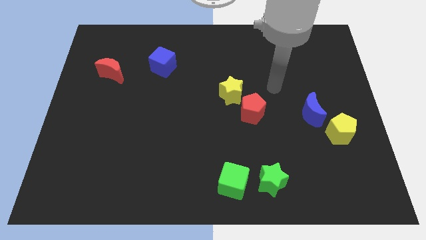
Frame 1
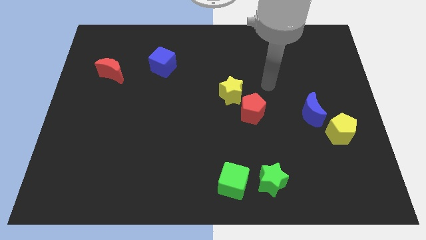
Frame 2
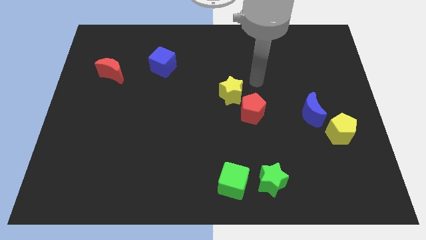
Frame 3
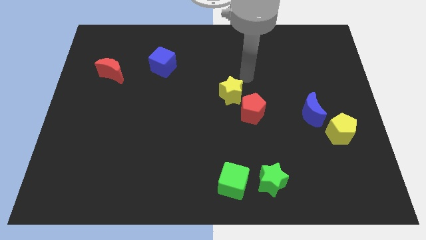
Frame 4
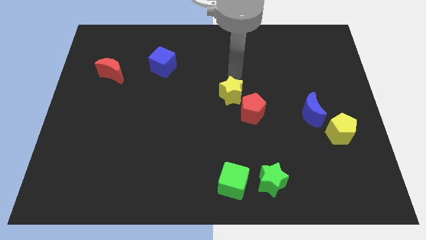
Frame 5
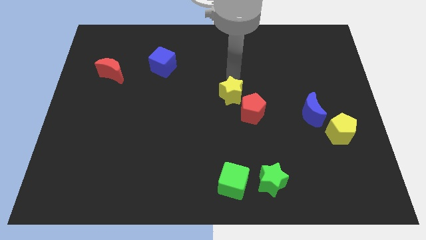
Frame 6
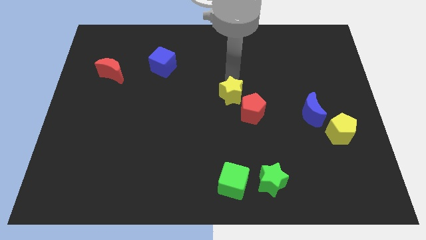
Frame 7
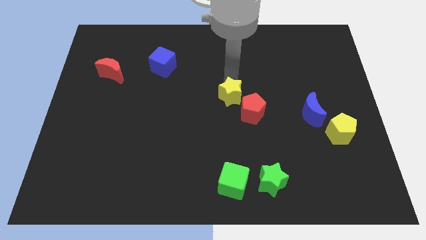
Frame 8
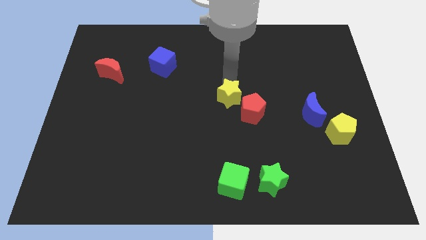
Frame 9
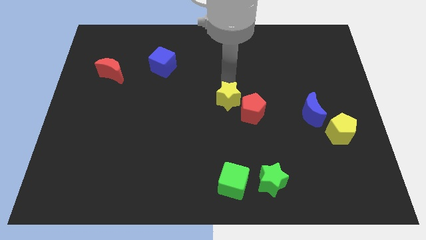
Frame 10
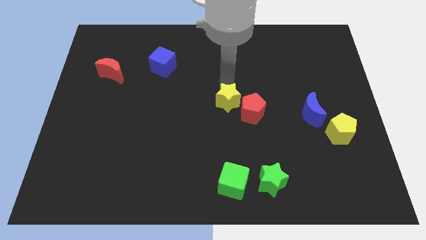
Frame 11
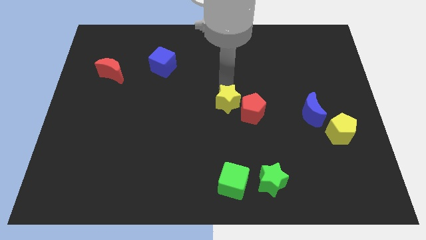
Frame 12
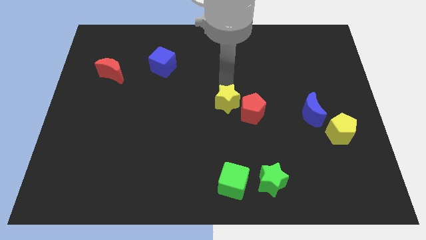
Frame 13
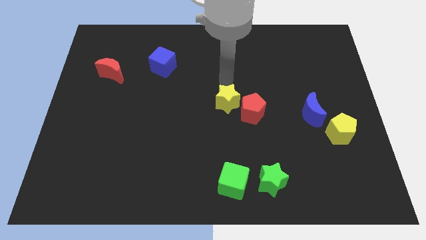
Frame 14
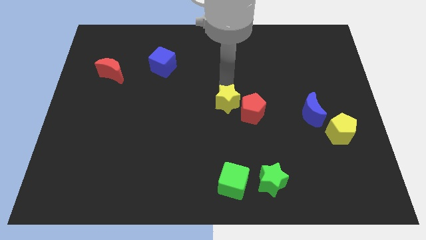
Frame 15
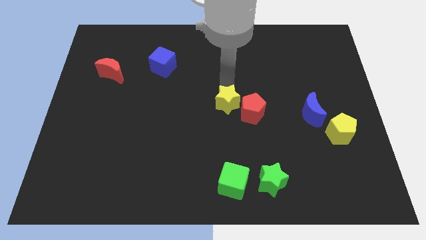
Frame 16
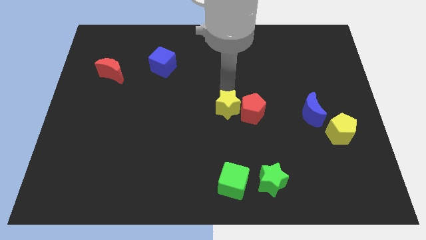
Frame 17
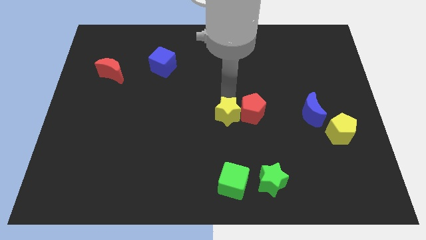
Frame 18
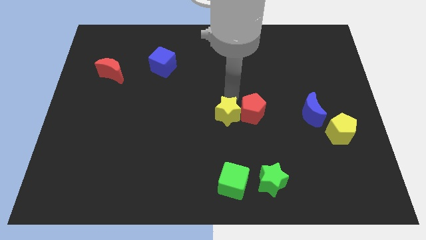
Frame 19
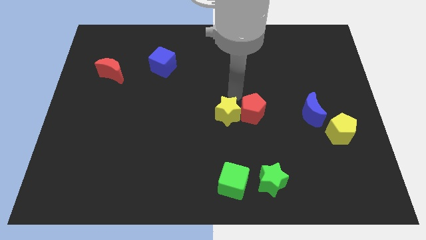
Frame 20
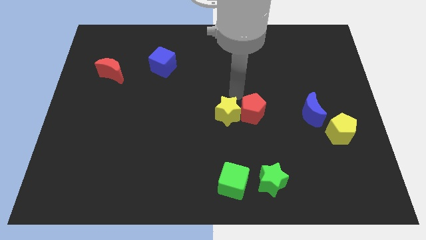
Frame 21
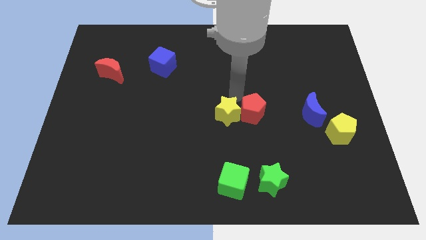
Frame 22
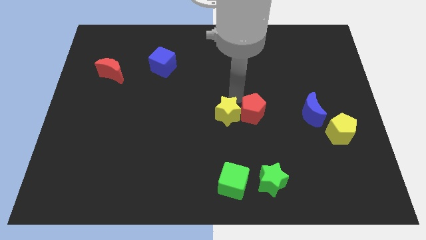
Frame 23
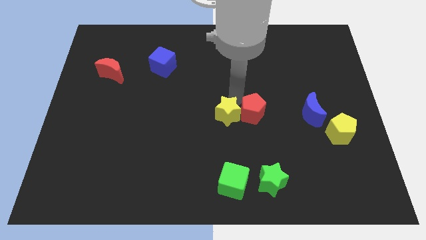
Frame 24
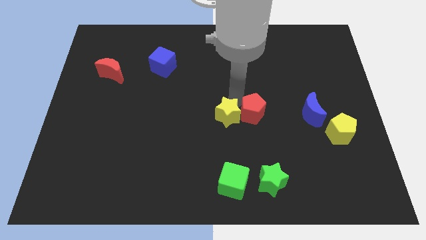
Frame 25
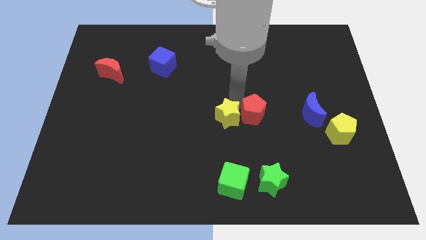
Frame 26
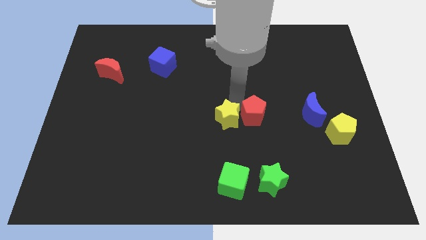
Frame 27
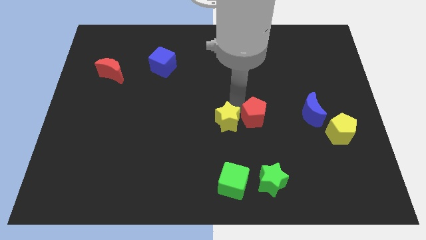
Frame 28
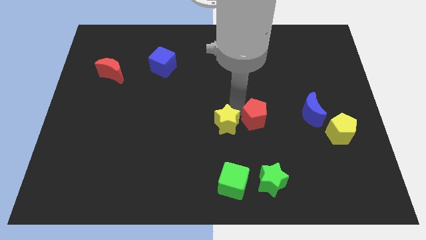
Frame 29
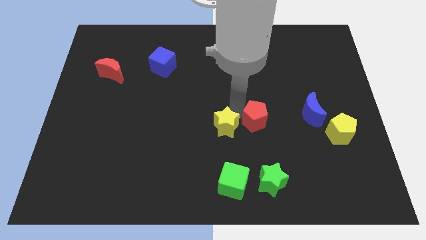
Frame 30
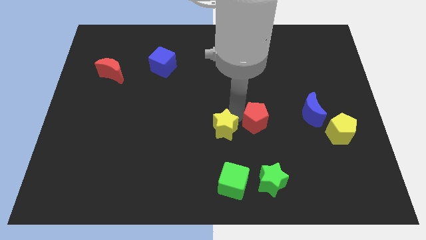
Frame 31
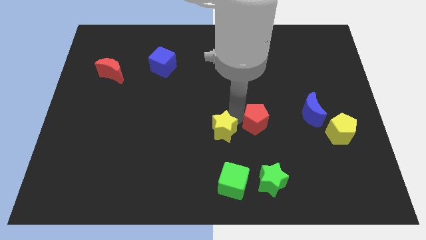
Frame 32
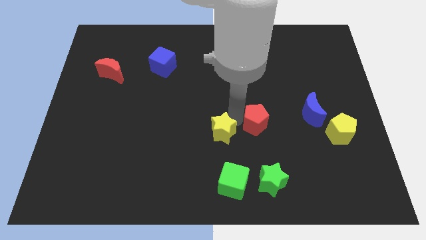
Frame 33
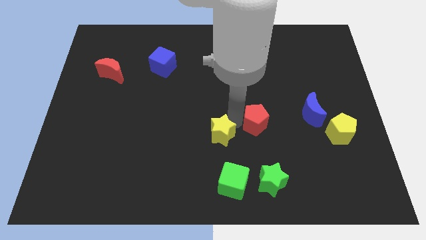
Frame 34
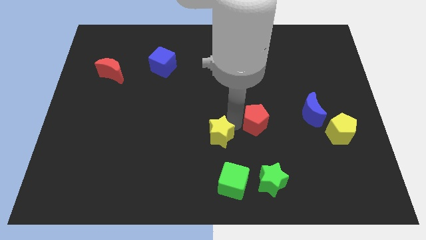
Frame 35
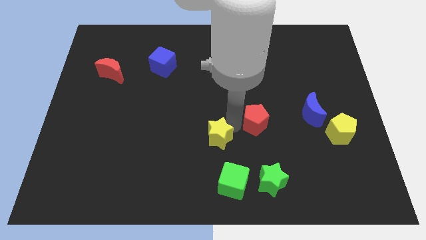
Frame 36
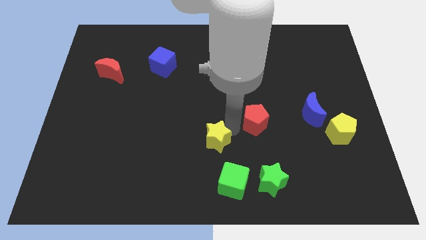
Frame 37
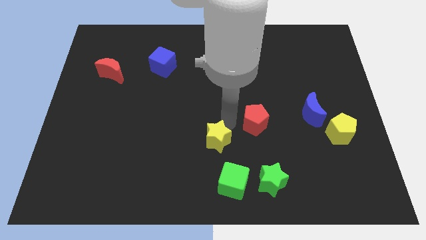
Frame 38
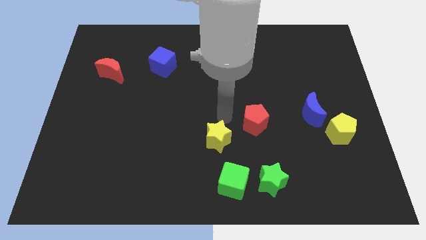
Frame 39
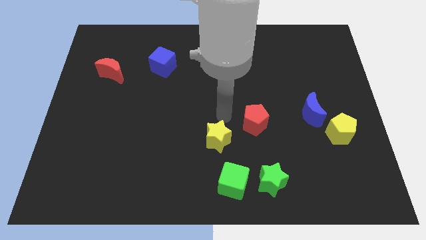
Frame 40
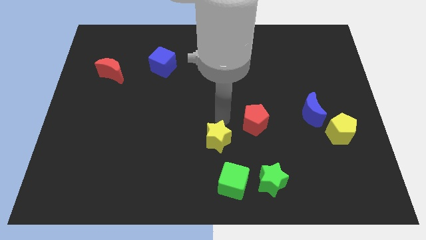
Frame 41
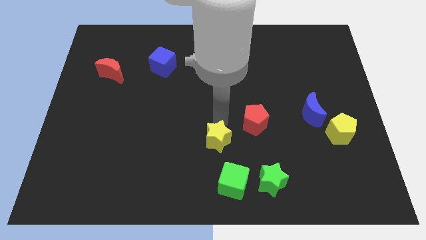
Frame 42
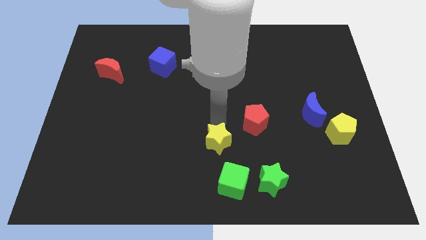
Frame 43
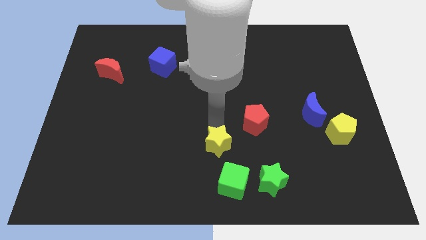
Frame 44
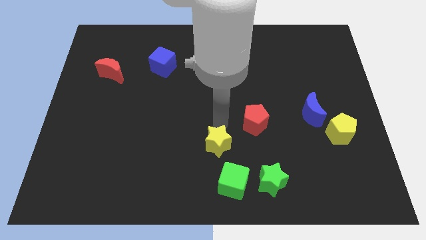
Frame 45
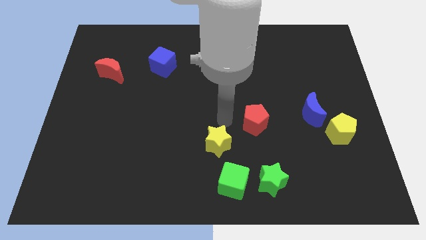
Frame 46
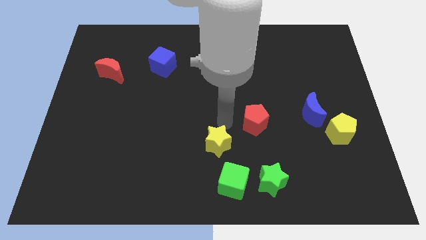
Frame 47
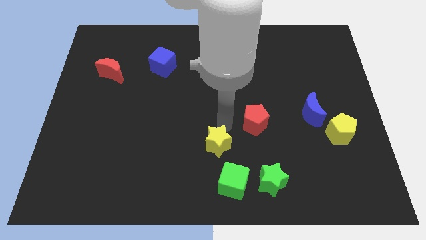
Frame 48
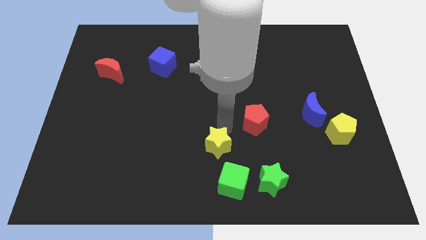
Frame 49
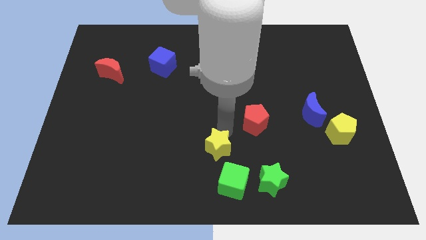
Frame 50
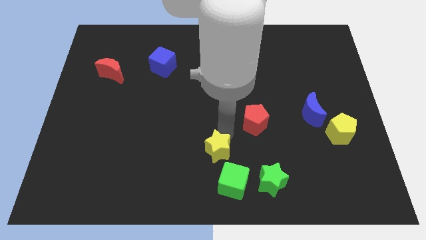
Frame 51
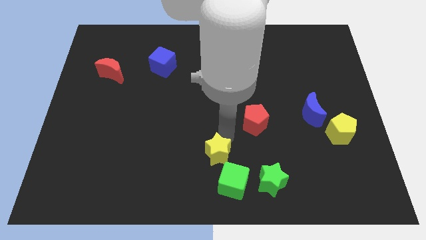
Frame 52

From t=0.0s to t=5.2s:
move the yellow star to the bottom side
